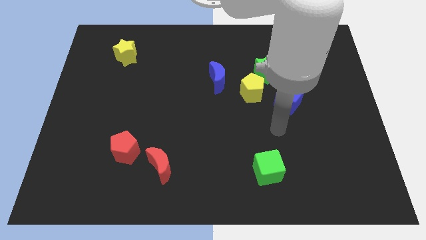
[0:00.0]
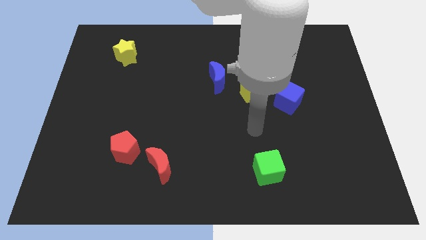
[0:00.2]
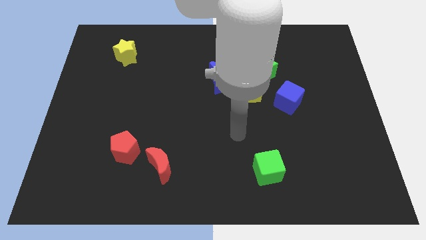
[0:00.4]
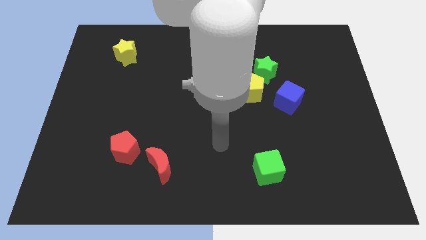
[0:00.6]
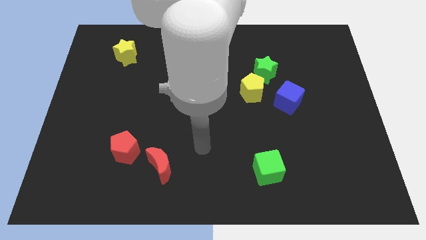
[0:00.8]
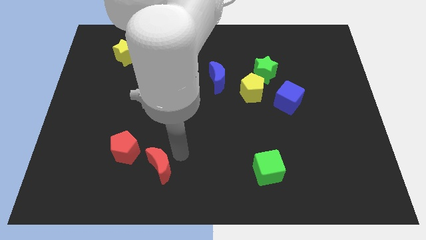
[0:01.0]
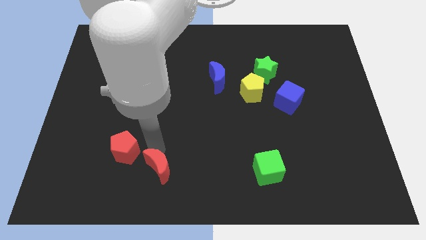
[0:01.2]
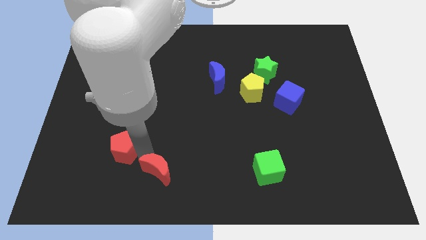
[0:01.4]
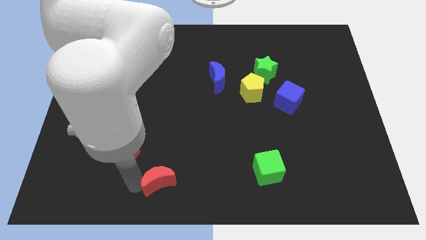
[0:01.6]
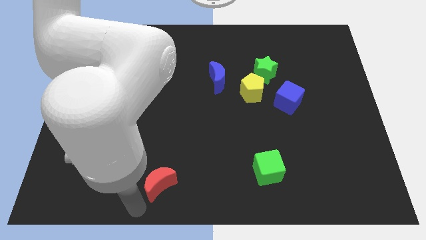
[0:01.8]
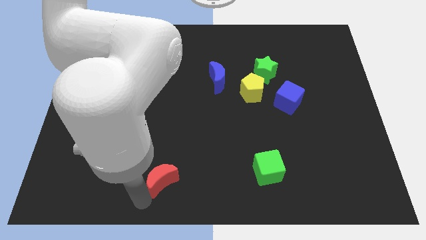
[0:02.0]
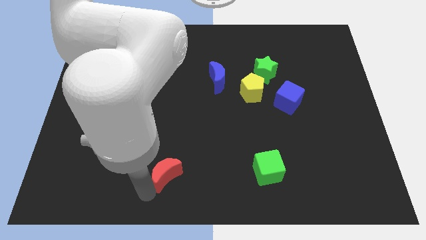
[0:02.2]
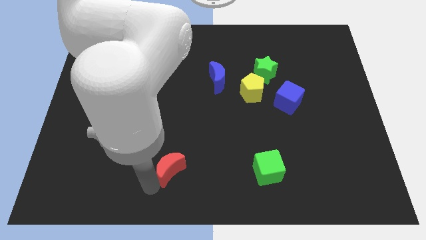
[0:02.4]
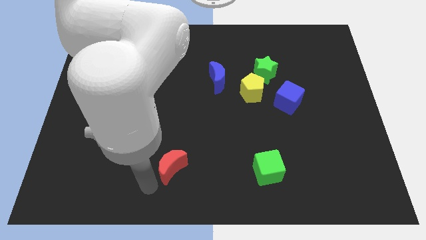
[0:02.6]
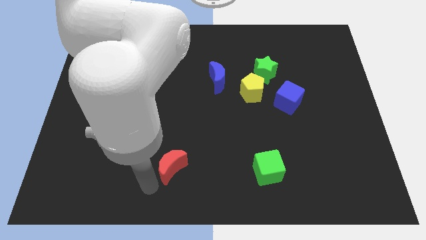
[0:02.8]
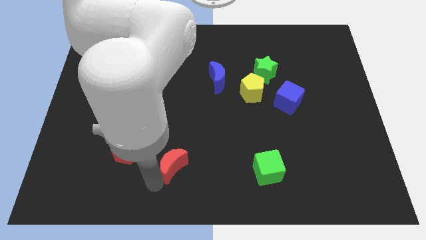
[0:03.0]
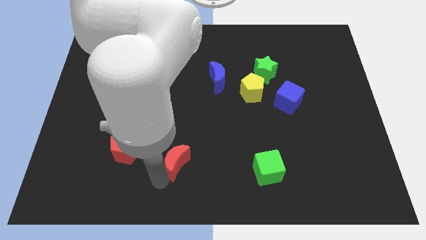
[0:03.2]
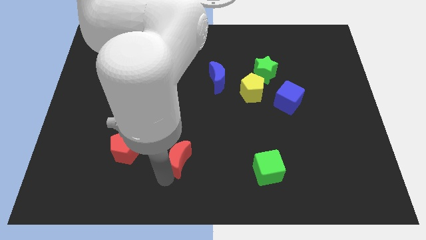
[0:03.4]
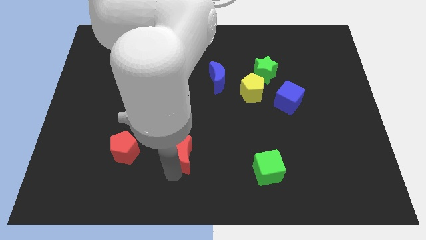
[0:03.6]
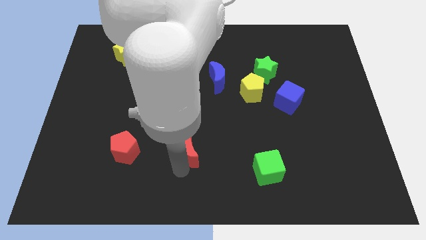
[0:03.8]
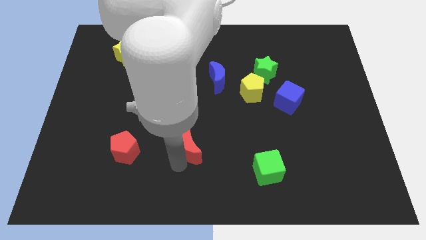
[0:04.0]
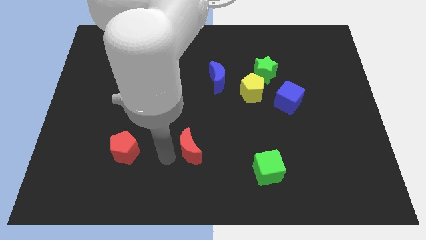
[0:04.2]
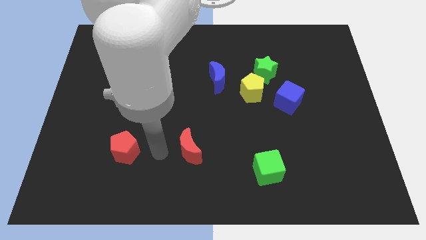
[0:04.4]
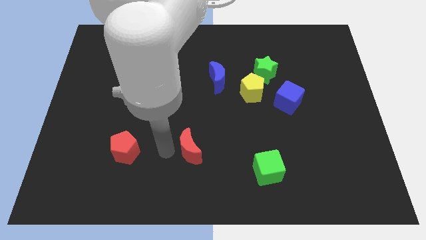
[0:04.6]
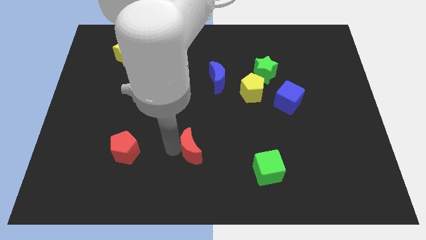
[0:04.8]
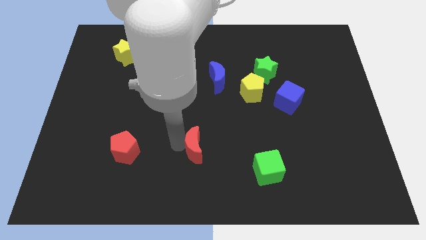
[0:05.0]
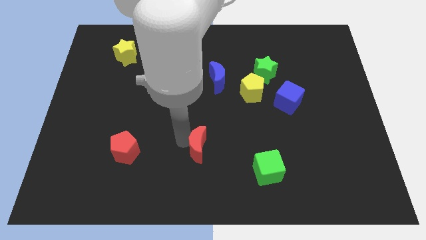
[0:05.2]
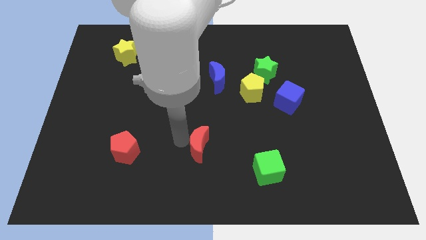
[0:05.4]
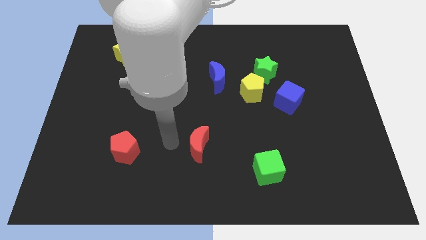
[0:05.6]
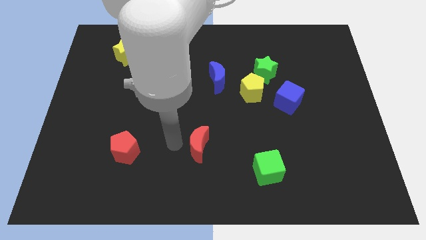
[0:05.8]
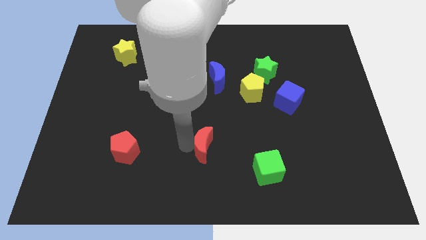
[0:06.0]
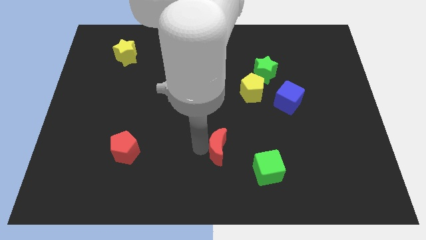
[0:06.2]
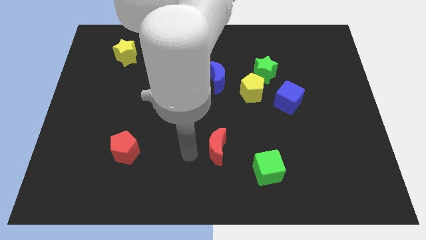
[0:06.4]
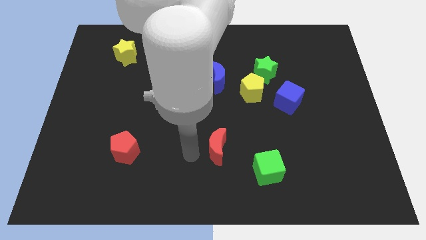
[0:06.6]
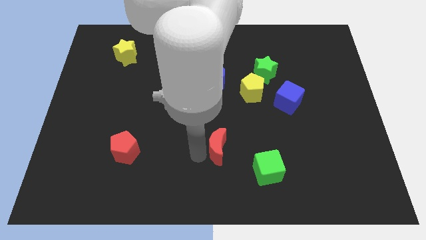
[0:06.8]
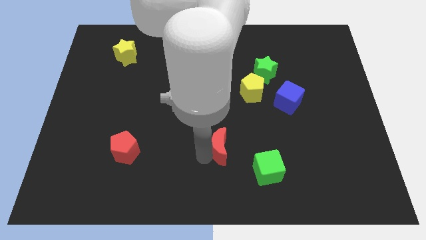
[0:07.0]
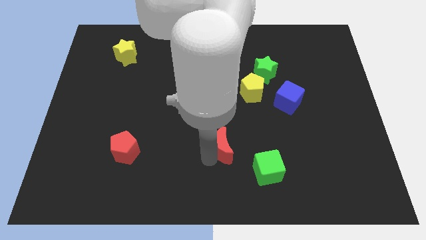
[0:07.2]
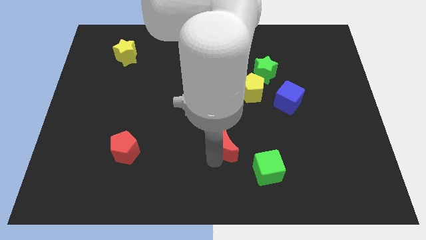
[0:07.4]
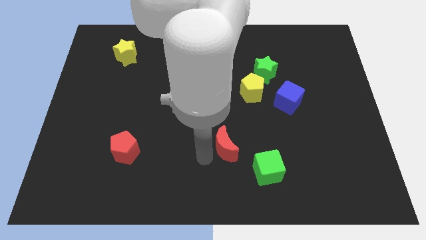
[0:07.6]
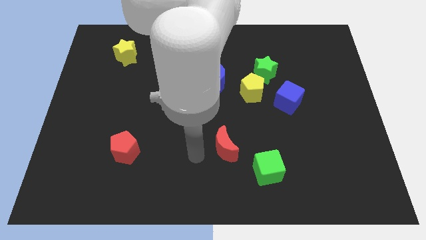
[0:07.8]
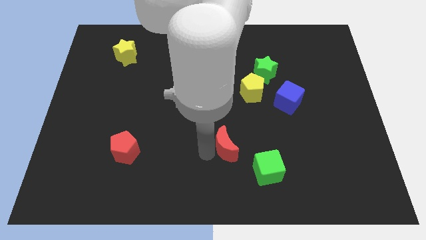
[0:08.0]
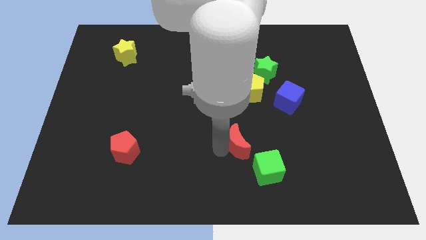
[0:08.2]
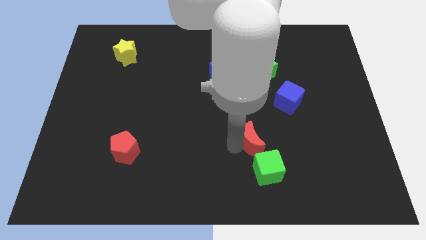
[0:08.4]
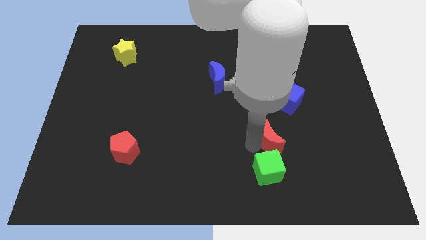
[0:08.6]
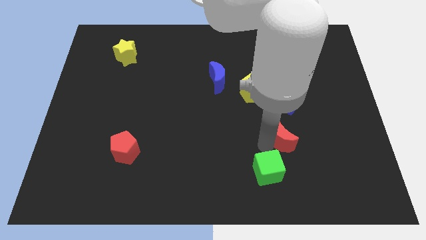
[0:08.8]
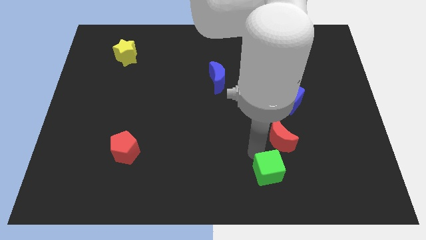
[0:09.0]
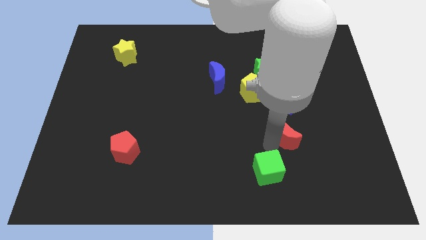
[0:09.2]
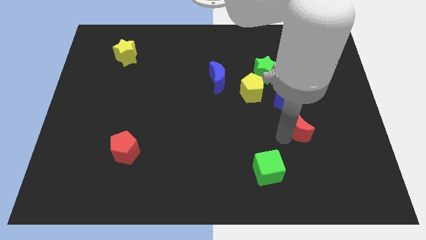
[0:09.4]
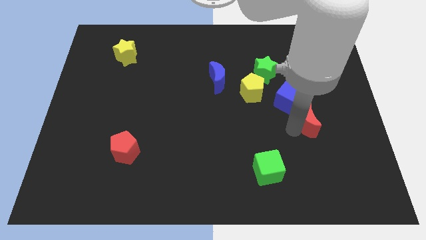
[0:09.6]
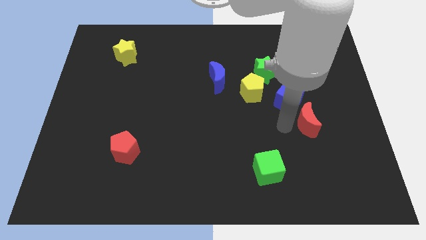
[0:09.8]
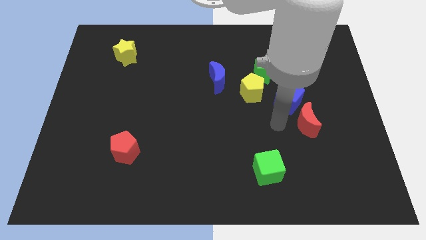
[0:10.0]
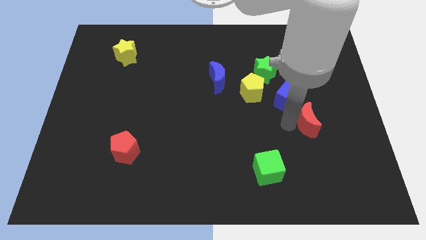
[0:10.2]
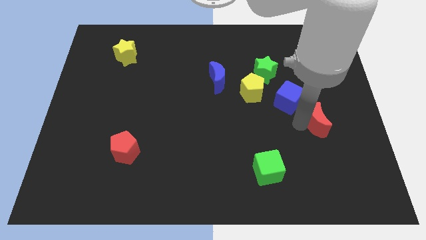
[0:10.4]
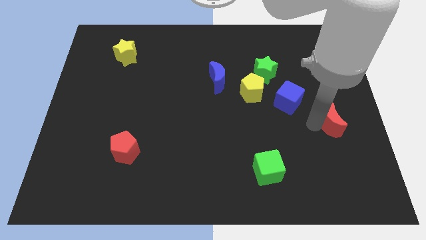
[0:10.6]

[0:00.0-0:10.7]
move the red moon to the center right

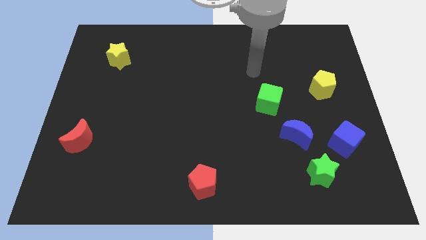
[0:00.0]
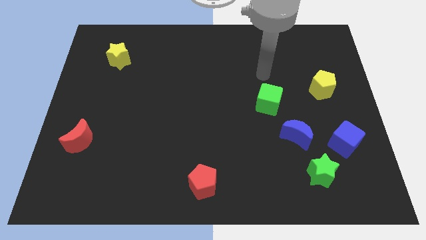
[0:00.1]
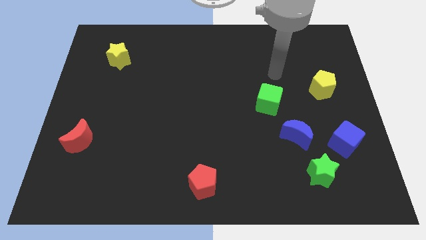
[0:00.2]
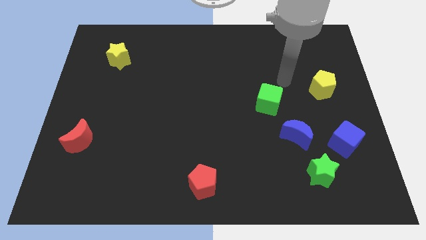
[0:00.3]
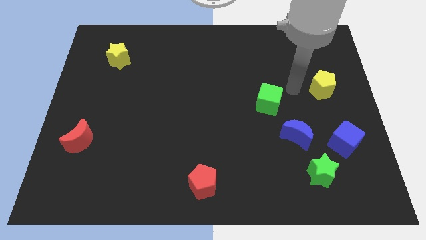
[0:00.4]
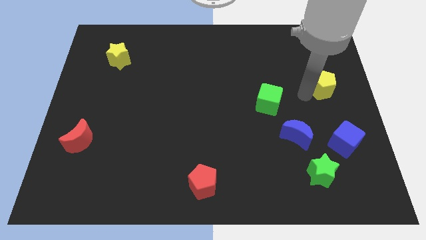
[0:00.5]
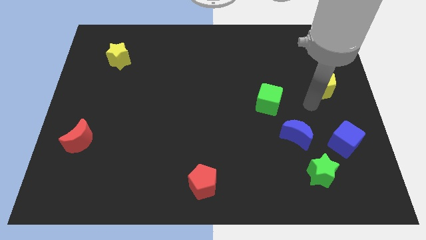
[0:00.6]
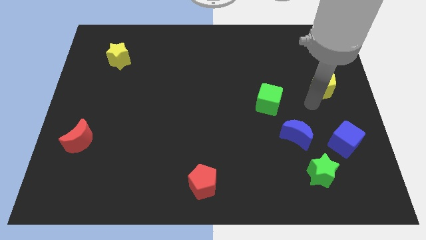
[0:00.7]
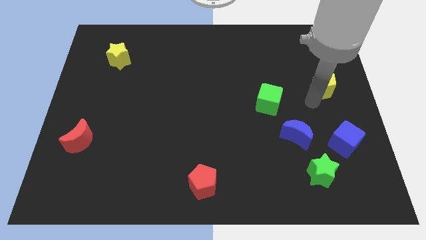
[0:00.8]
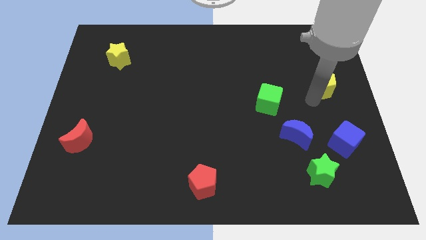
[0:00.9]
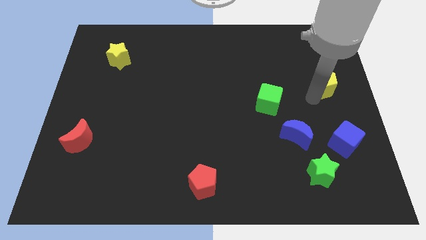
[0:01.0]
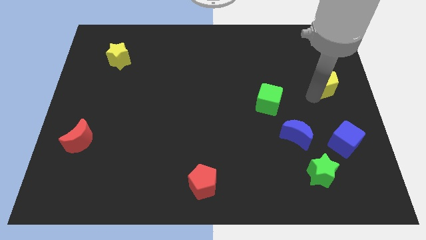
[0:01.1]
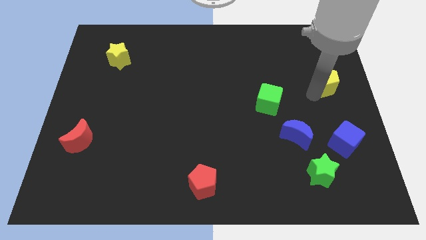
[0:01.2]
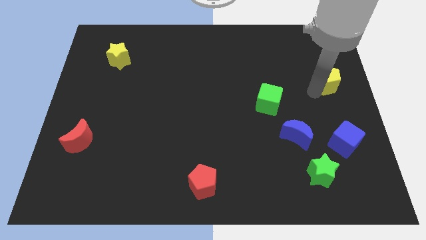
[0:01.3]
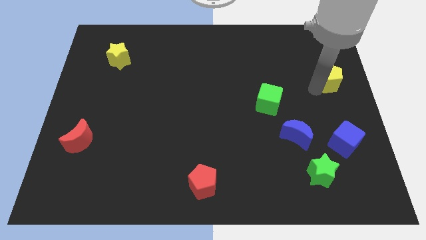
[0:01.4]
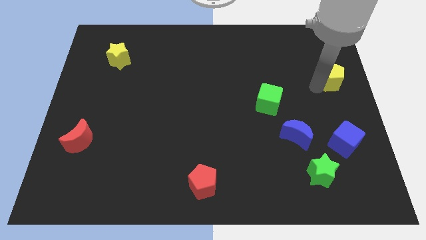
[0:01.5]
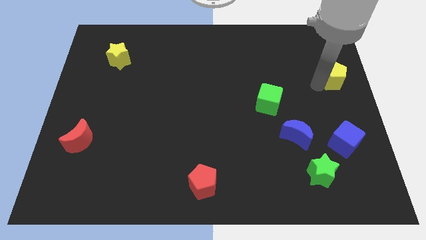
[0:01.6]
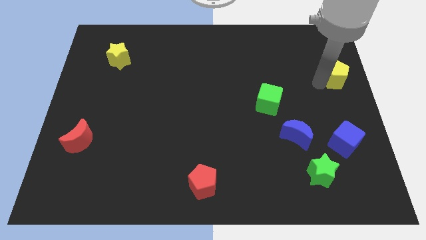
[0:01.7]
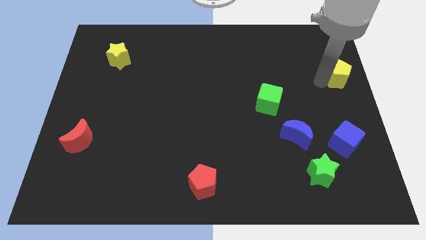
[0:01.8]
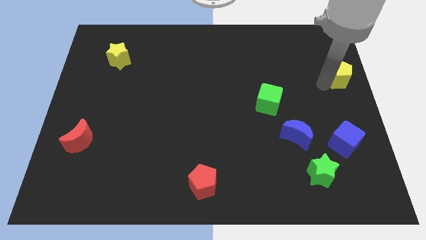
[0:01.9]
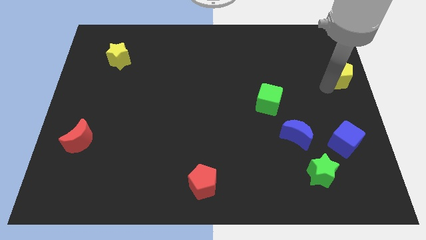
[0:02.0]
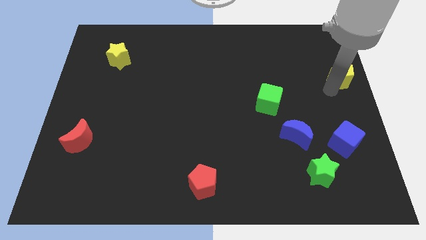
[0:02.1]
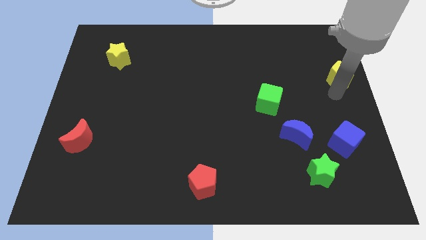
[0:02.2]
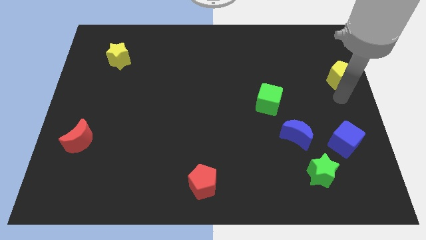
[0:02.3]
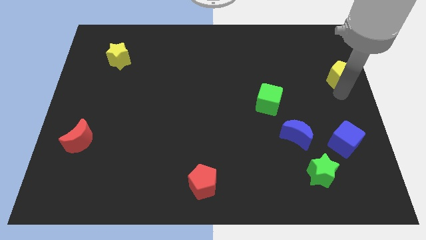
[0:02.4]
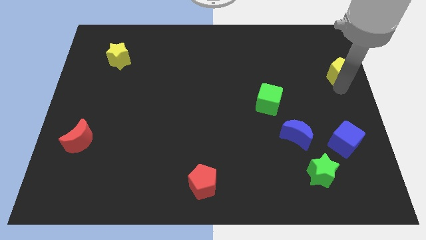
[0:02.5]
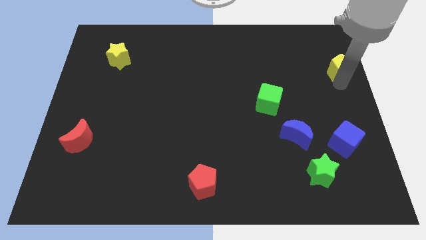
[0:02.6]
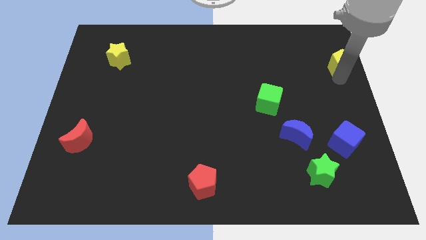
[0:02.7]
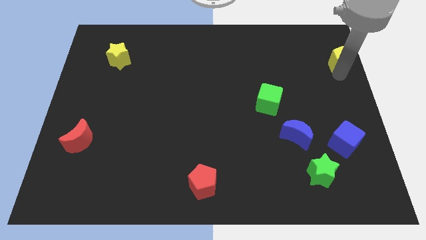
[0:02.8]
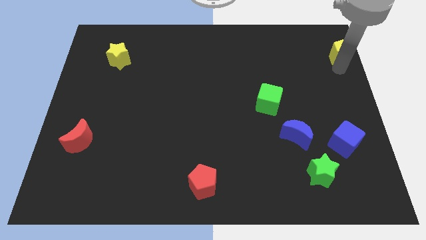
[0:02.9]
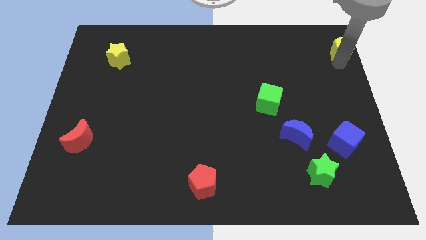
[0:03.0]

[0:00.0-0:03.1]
slide the yellow pentagon to the top right of the board
